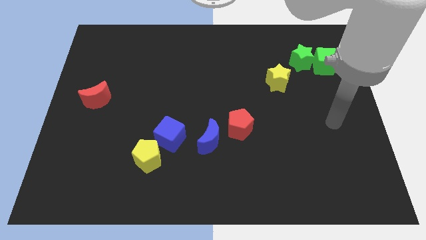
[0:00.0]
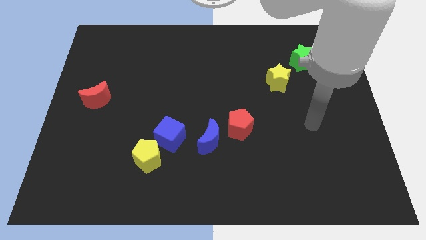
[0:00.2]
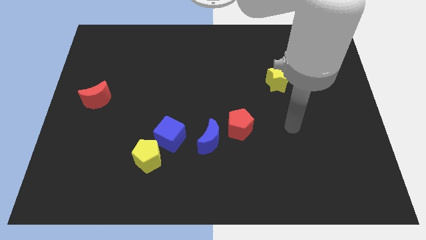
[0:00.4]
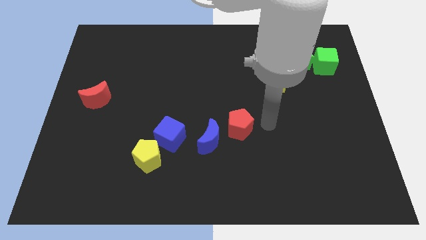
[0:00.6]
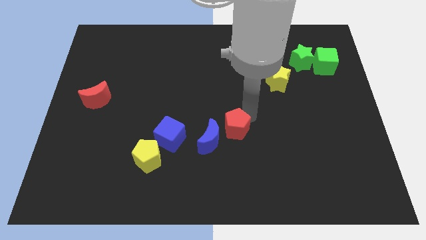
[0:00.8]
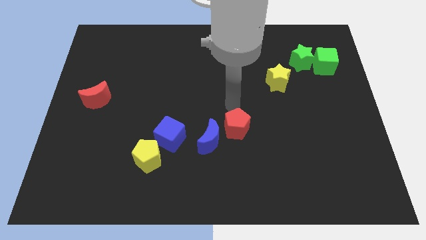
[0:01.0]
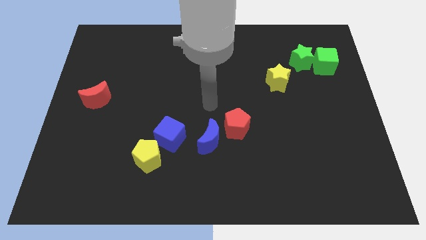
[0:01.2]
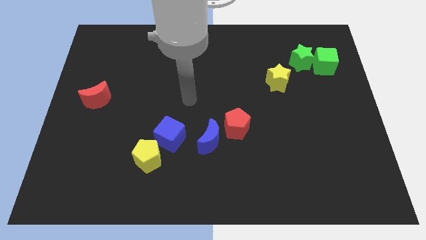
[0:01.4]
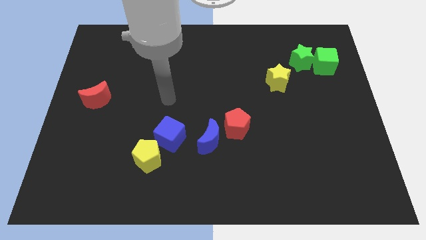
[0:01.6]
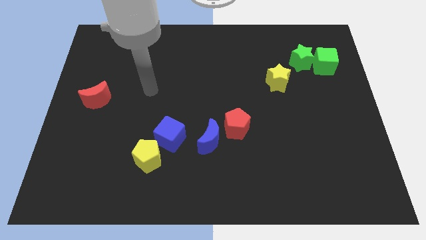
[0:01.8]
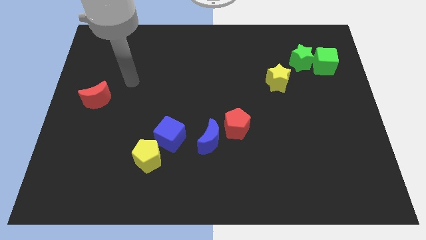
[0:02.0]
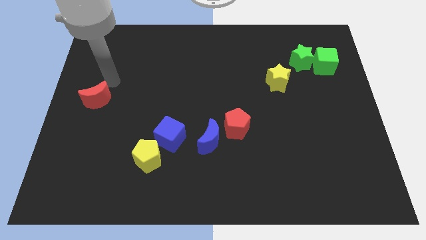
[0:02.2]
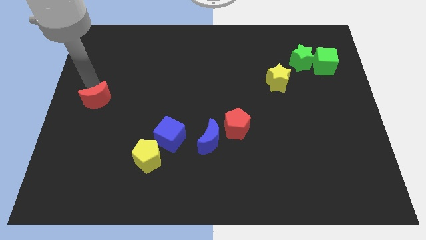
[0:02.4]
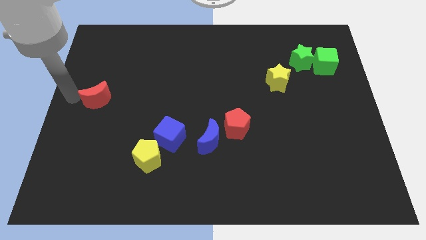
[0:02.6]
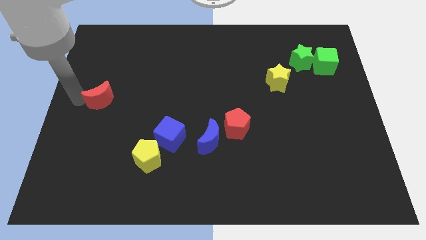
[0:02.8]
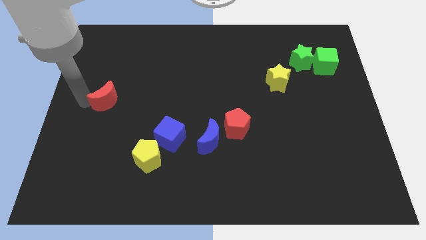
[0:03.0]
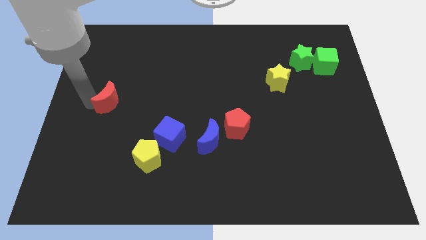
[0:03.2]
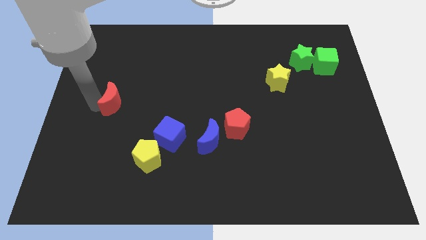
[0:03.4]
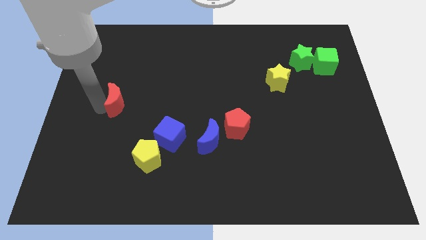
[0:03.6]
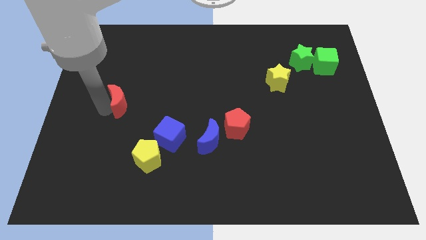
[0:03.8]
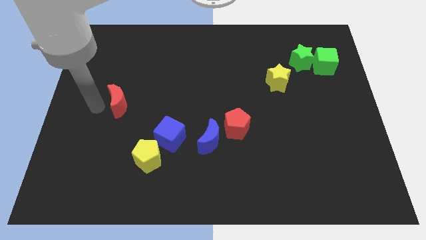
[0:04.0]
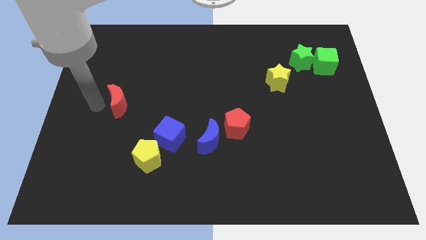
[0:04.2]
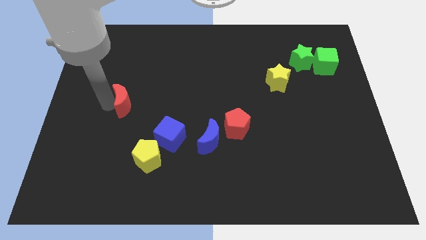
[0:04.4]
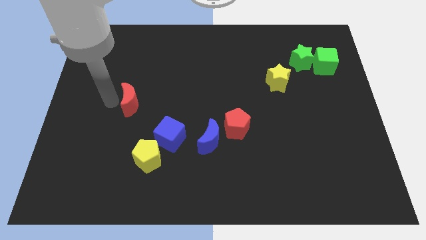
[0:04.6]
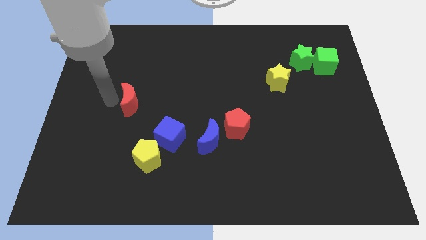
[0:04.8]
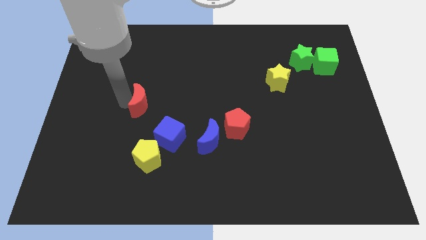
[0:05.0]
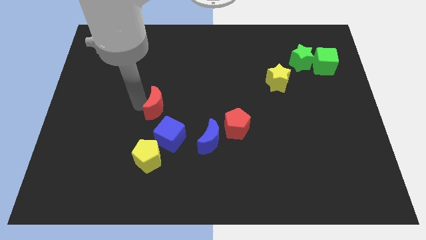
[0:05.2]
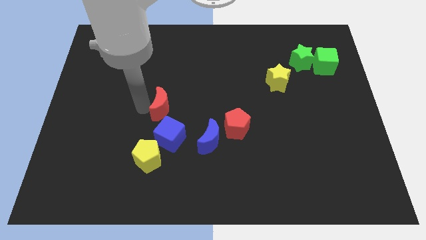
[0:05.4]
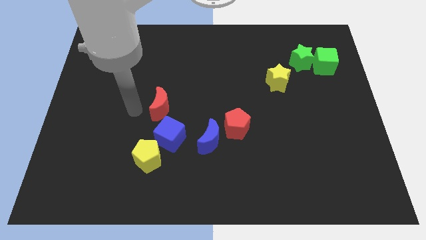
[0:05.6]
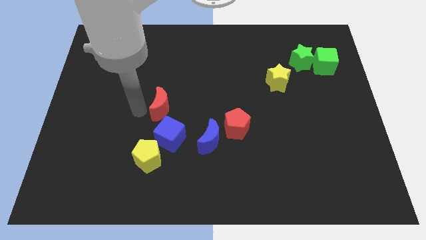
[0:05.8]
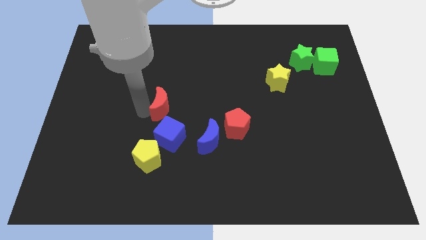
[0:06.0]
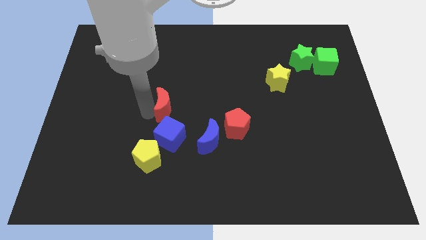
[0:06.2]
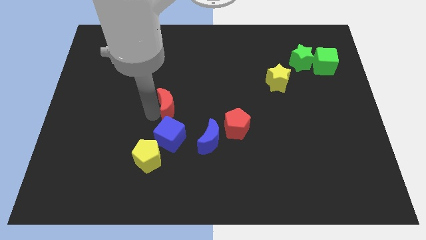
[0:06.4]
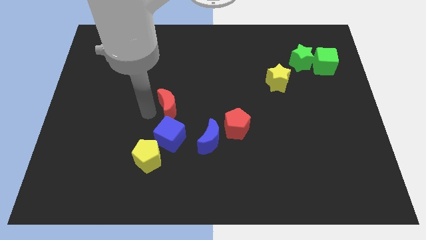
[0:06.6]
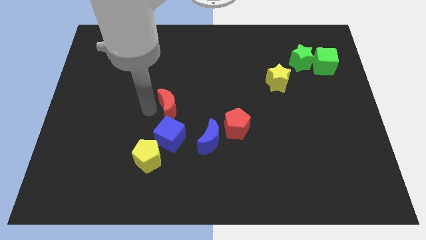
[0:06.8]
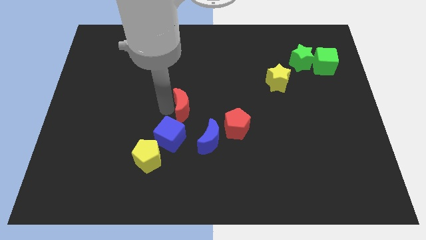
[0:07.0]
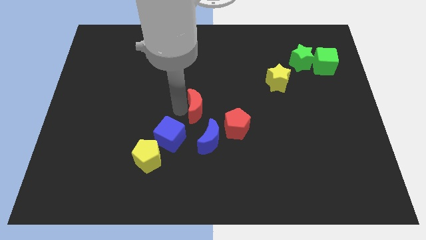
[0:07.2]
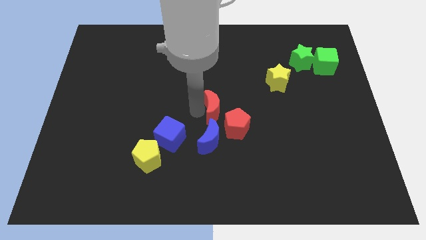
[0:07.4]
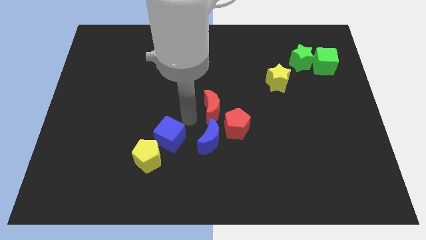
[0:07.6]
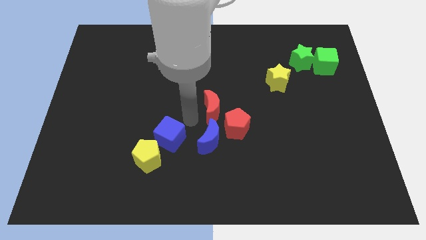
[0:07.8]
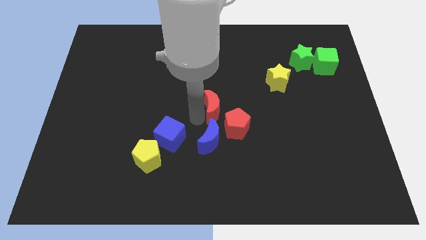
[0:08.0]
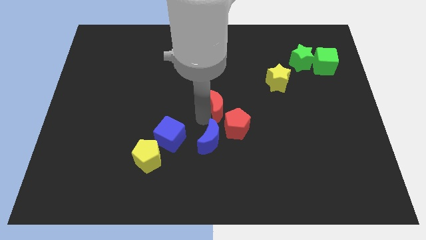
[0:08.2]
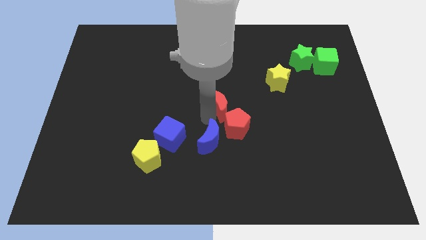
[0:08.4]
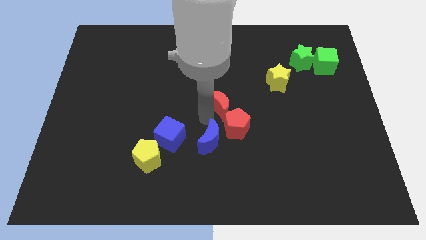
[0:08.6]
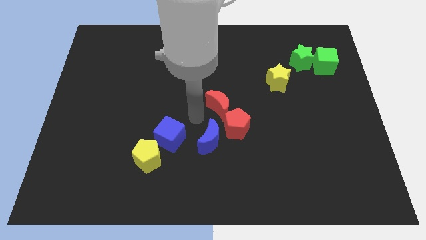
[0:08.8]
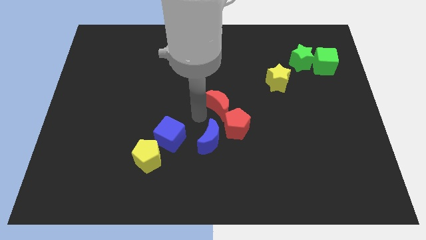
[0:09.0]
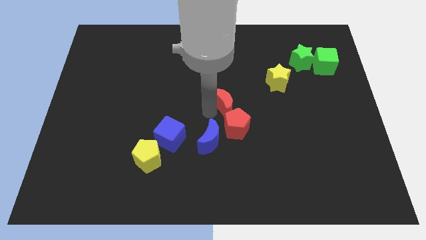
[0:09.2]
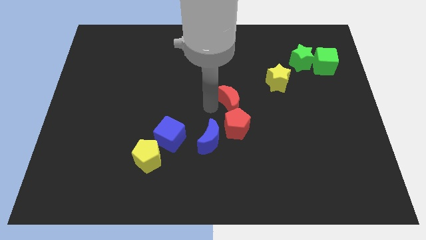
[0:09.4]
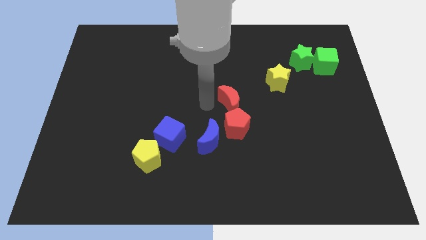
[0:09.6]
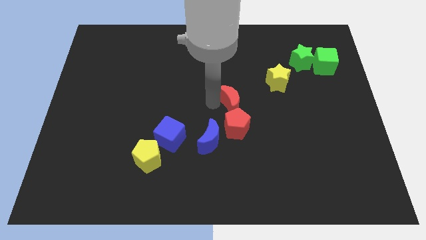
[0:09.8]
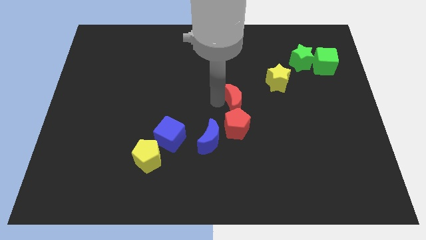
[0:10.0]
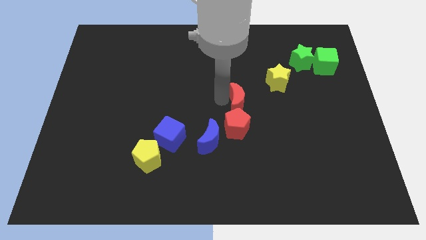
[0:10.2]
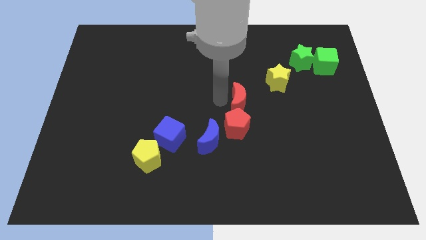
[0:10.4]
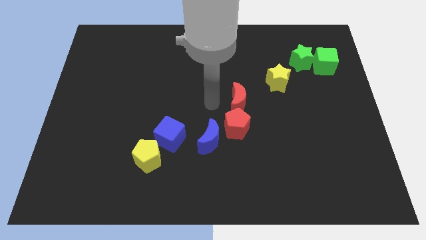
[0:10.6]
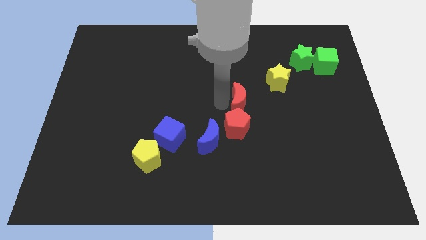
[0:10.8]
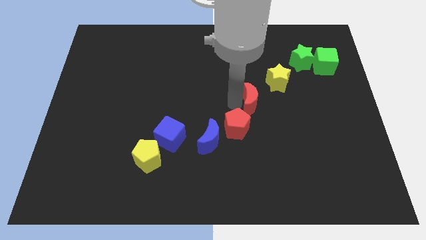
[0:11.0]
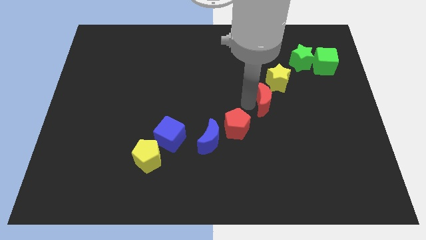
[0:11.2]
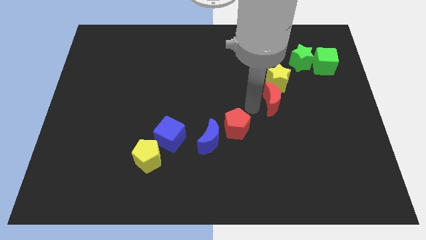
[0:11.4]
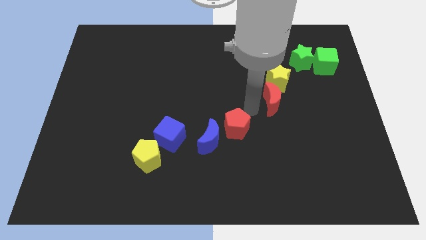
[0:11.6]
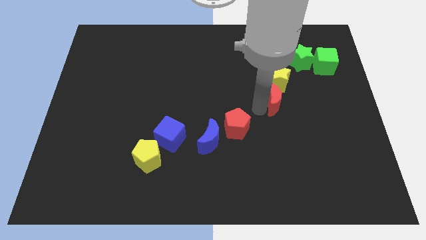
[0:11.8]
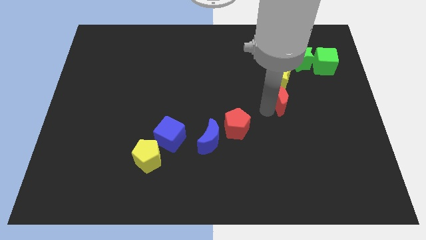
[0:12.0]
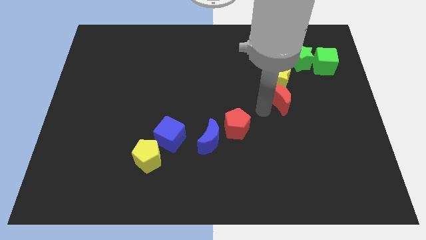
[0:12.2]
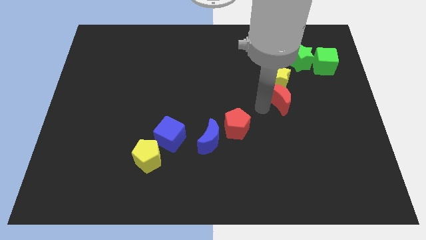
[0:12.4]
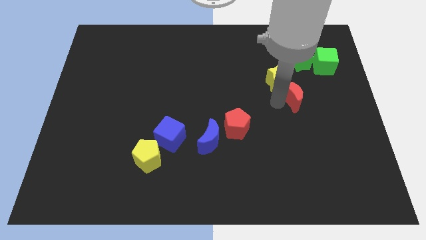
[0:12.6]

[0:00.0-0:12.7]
move the red moon below the green star
